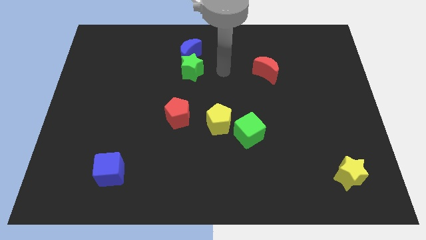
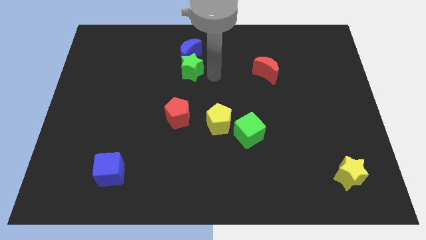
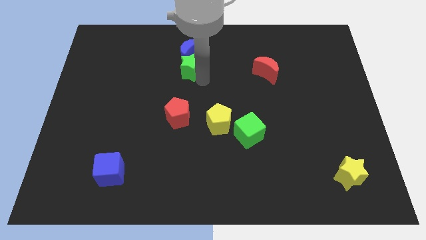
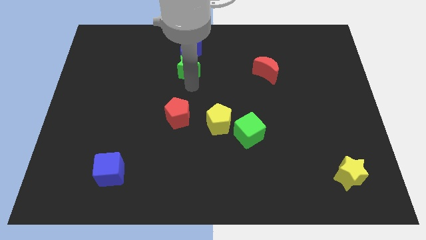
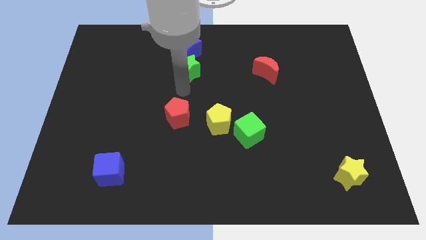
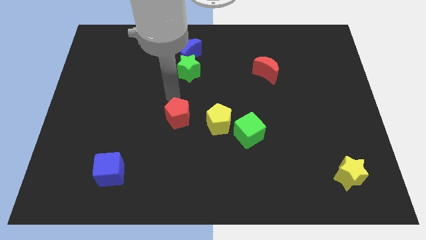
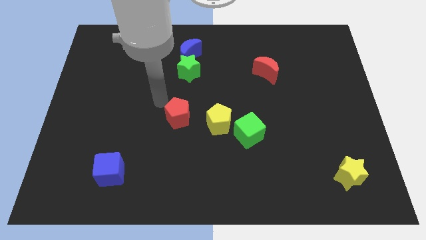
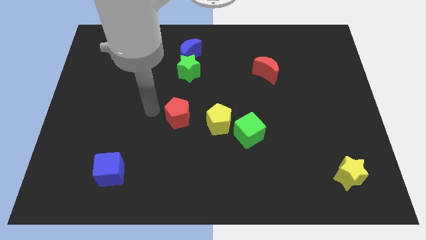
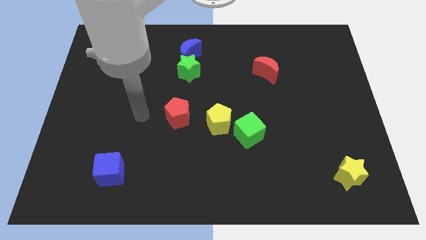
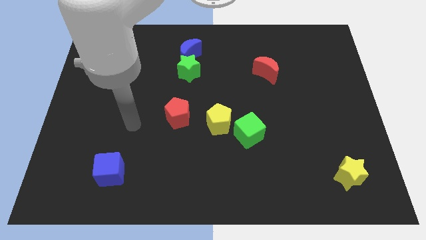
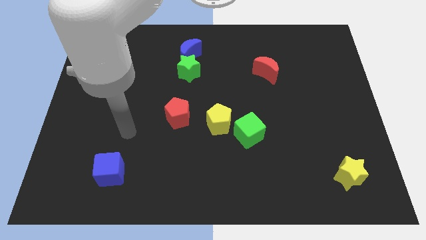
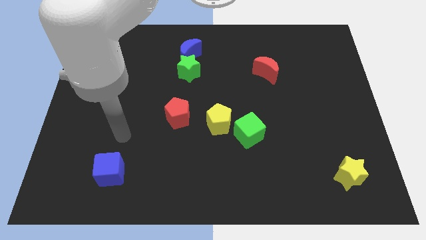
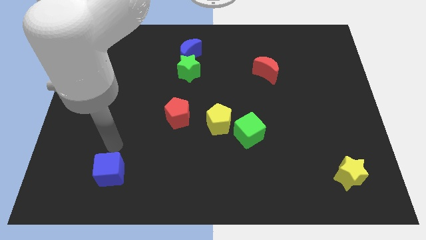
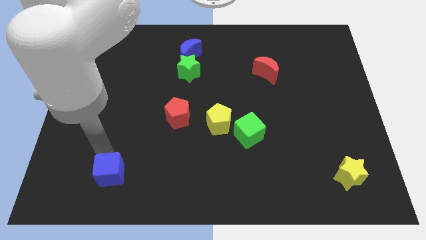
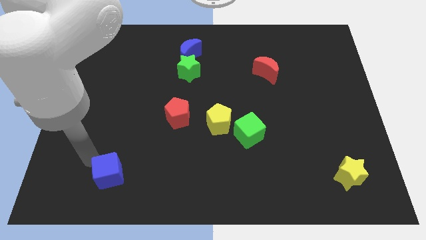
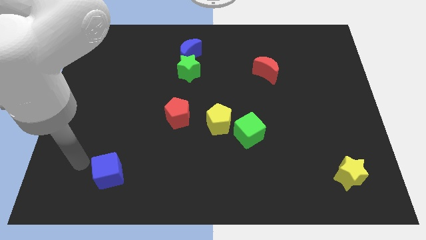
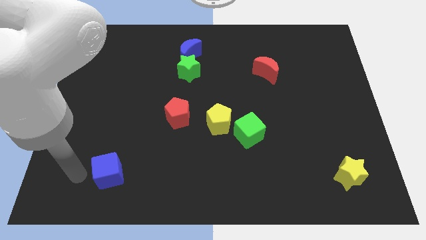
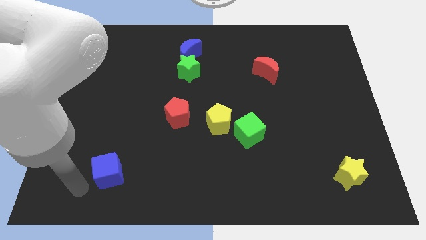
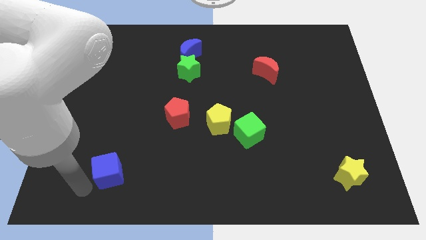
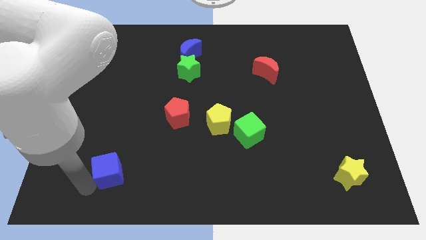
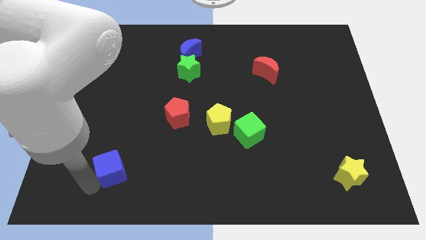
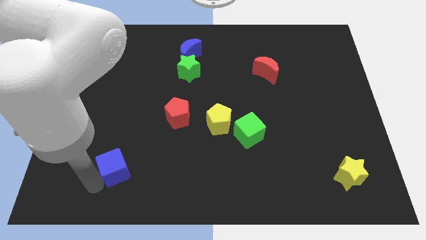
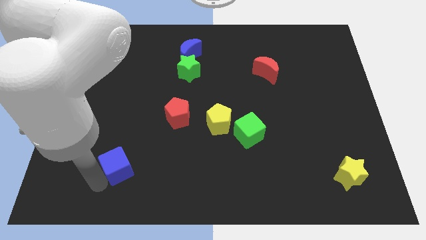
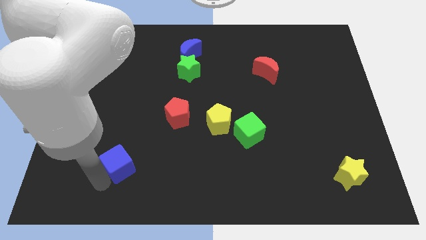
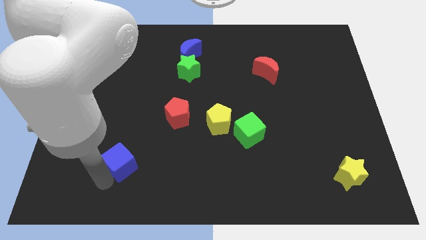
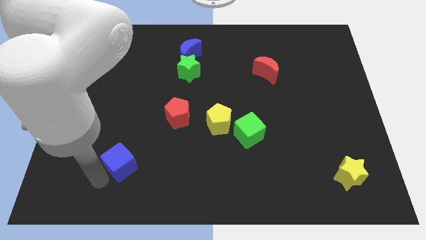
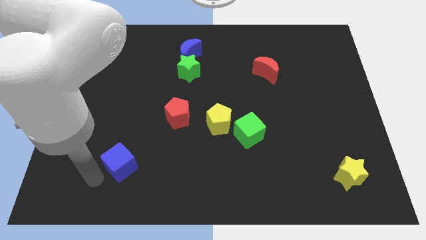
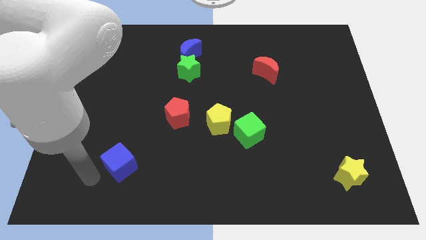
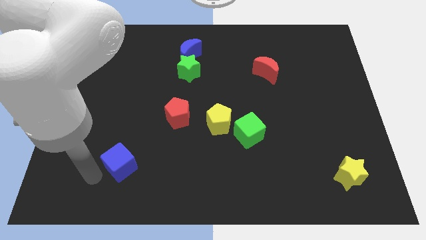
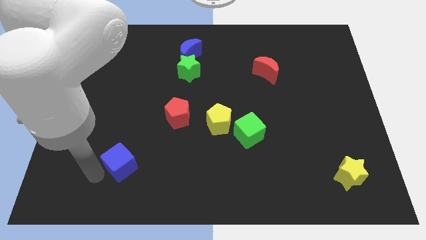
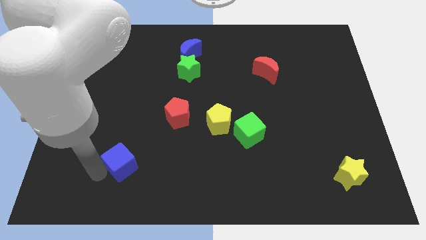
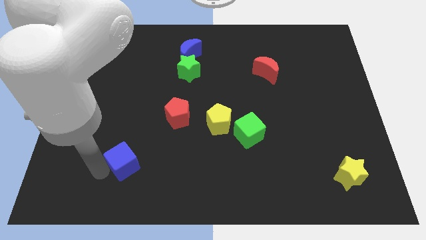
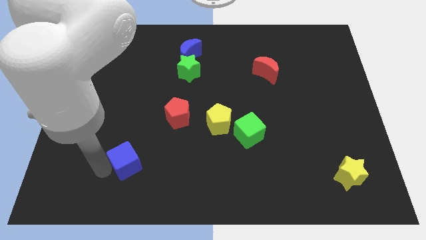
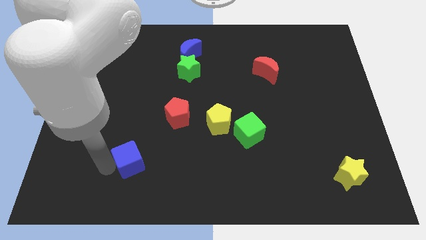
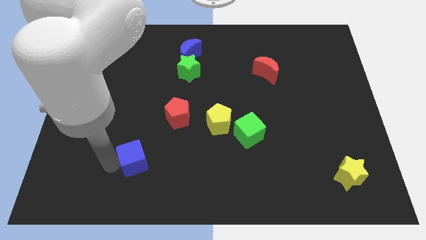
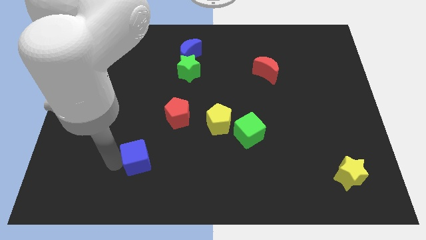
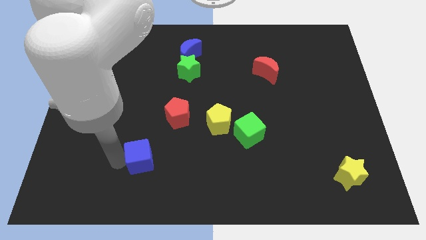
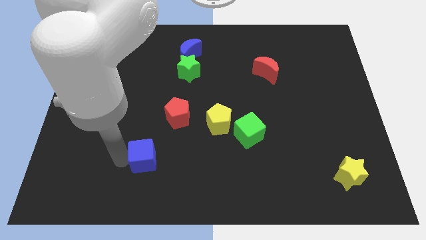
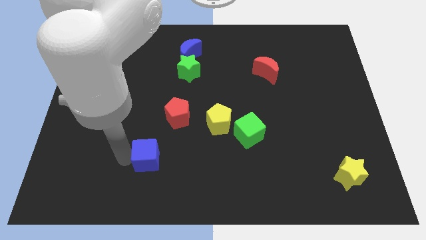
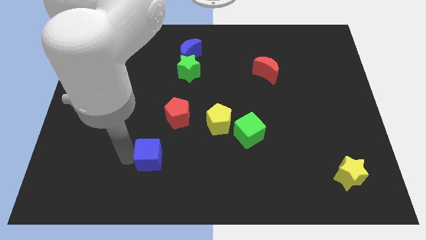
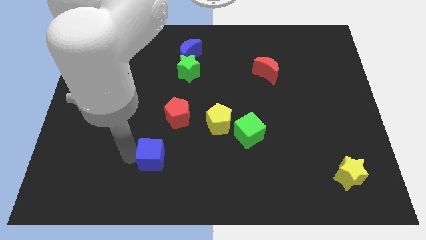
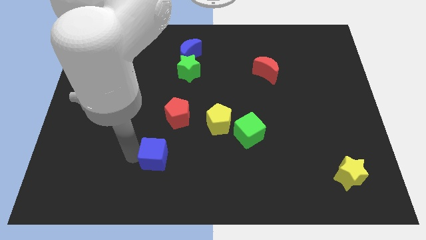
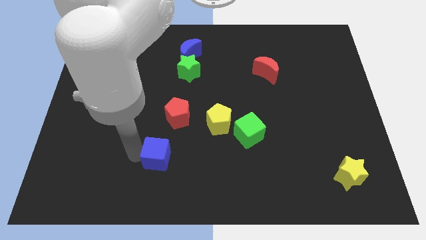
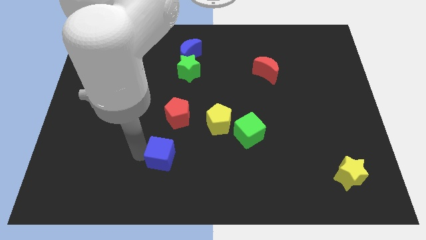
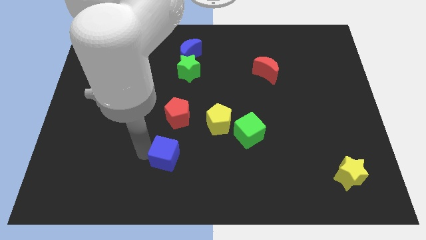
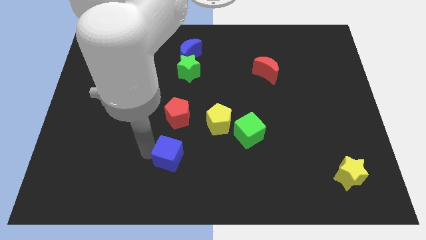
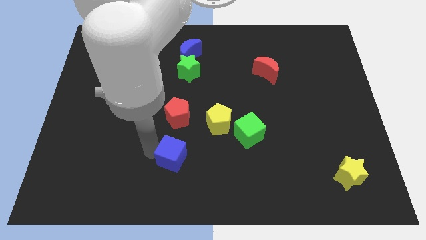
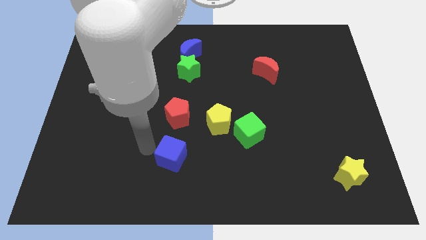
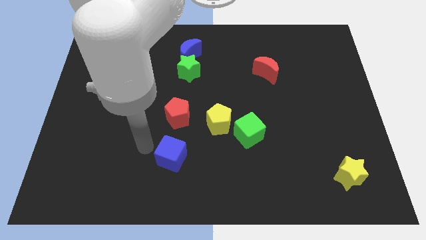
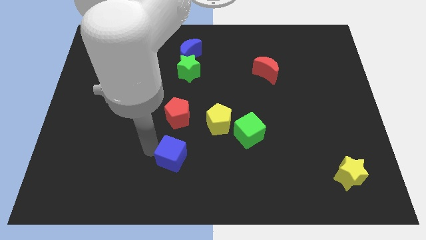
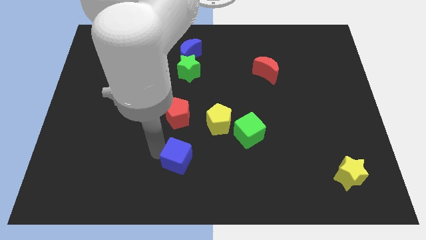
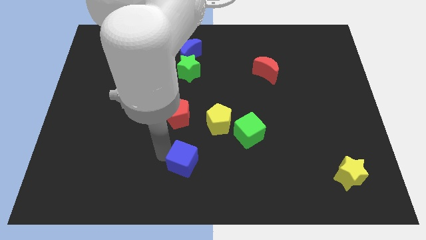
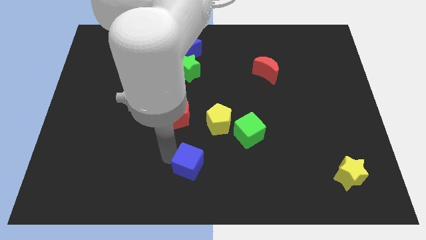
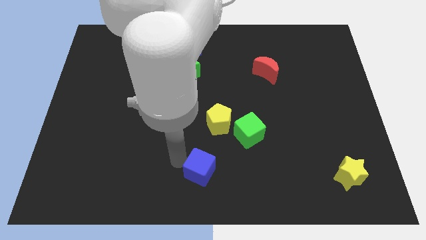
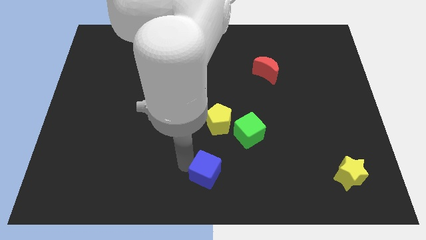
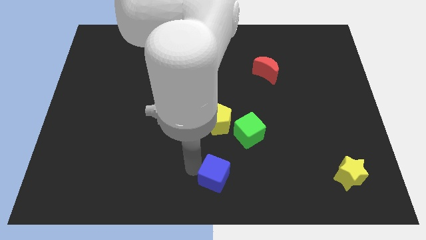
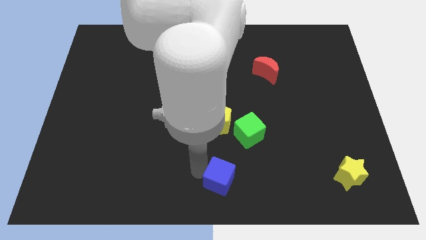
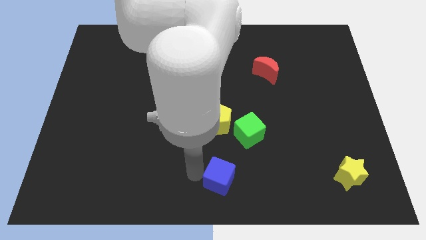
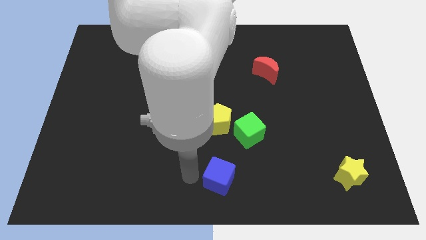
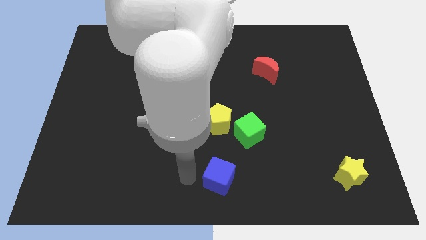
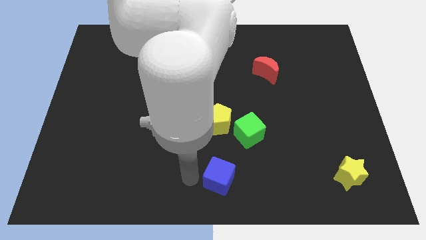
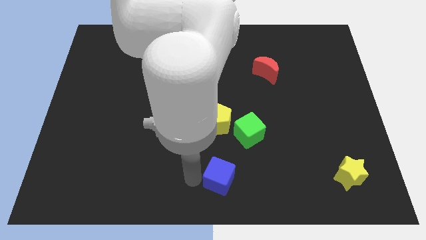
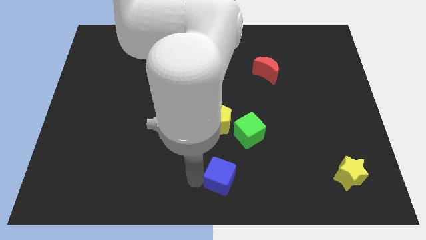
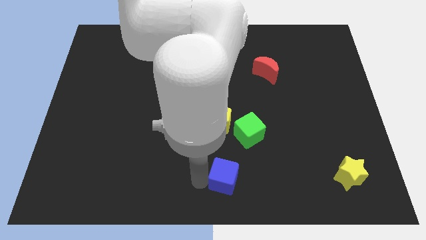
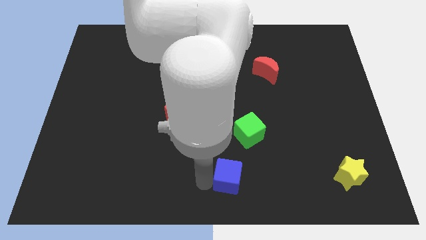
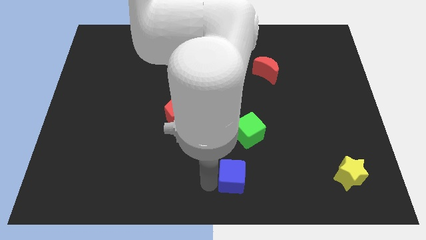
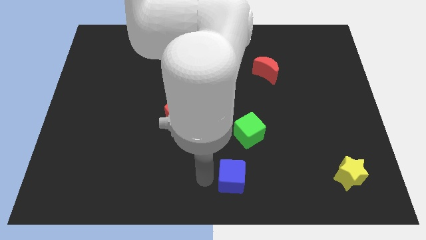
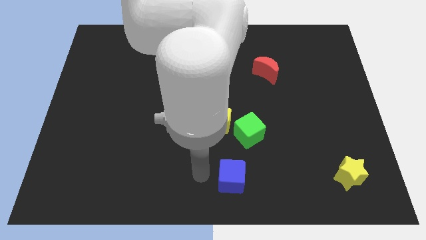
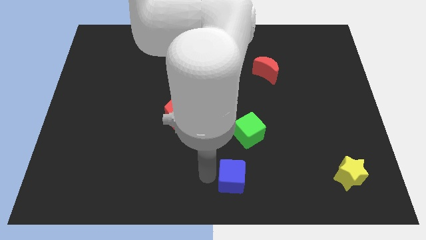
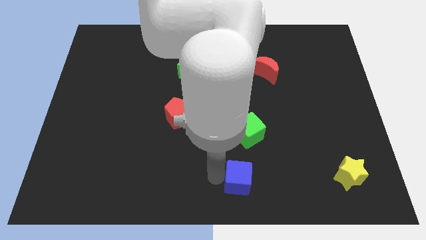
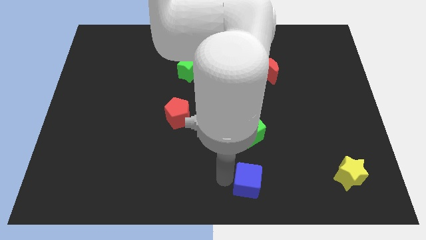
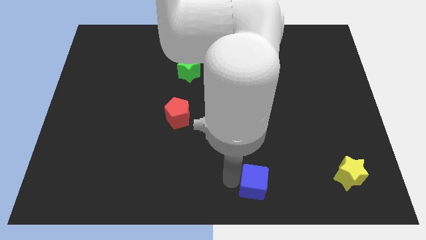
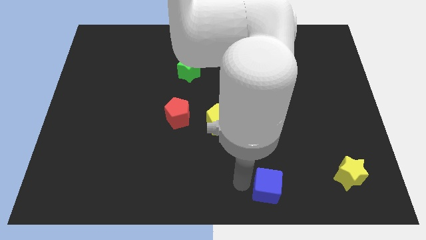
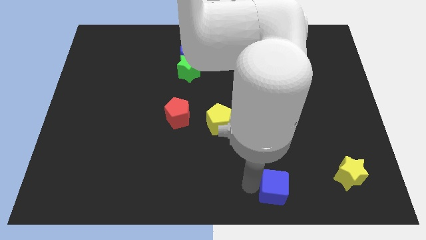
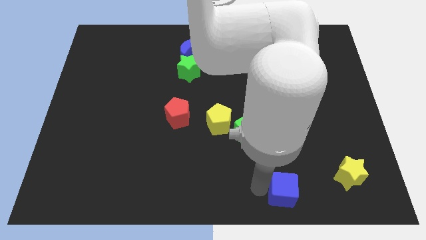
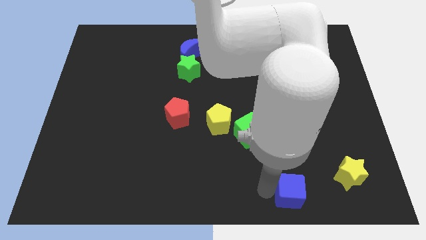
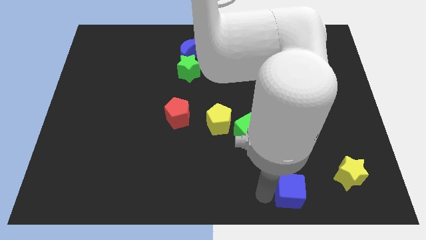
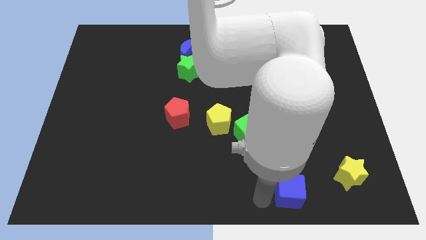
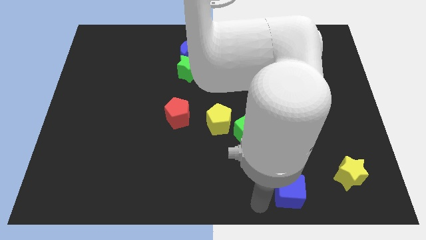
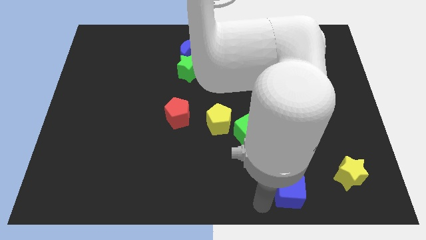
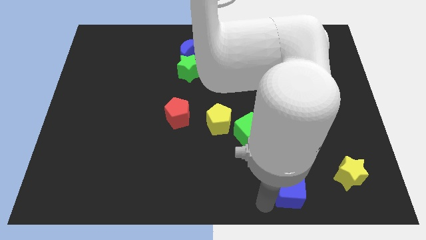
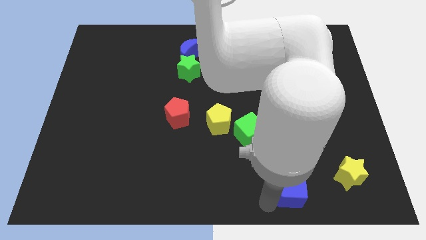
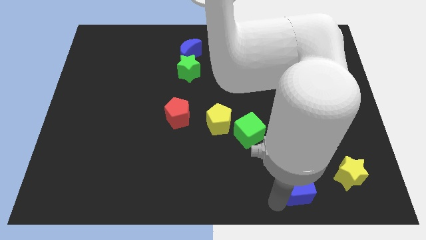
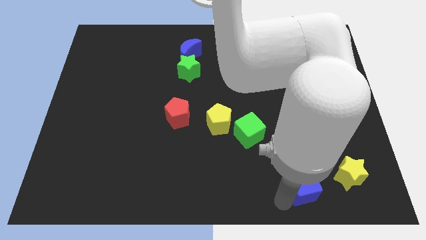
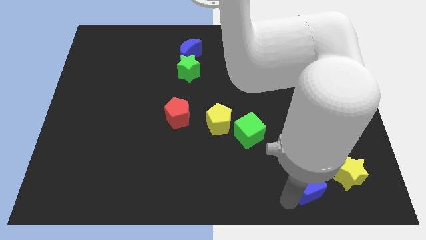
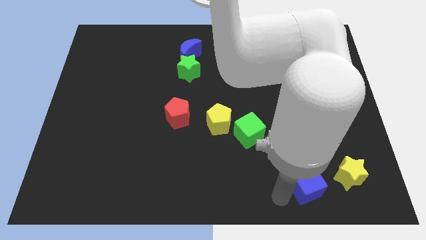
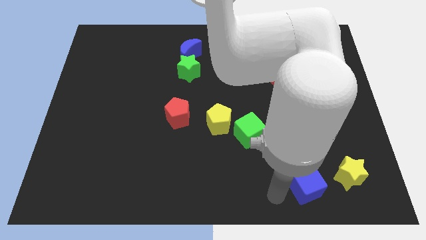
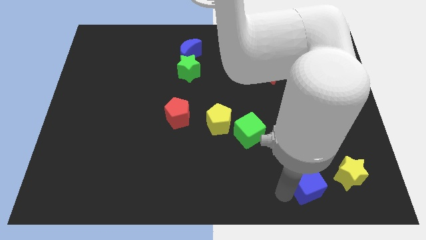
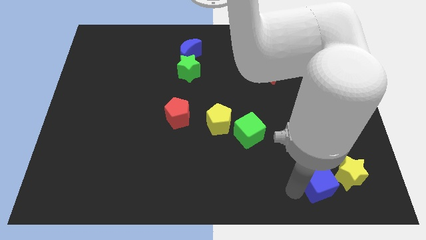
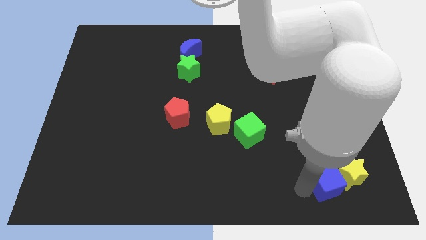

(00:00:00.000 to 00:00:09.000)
push the blue cube next to the yellow star
